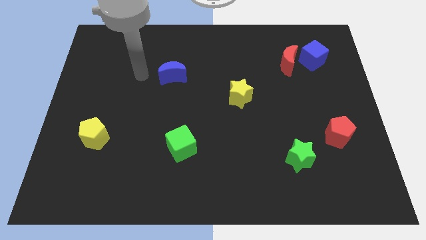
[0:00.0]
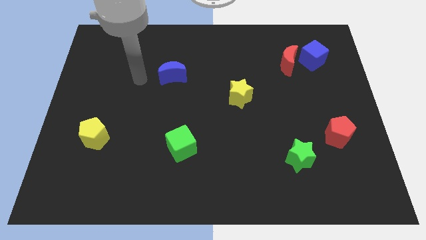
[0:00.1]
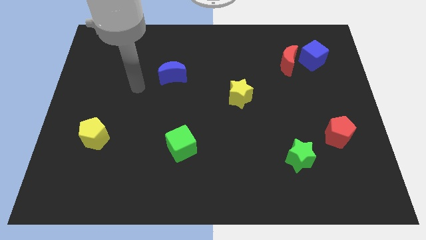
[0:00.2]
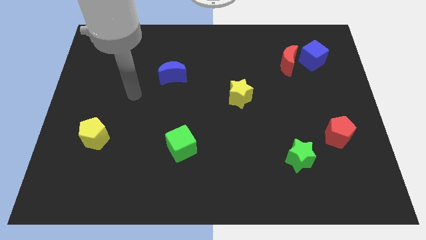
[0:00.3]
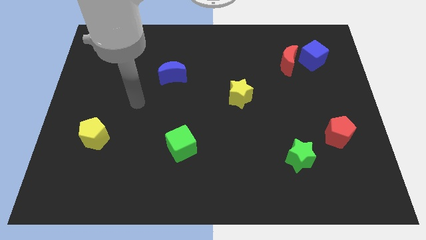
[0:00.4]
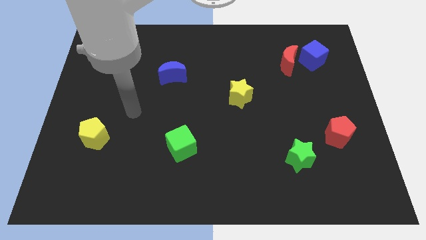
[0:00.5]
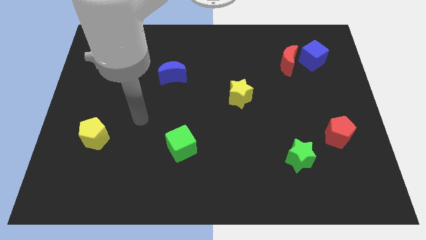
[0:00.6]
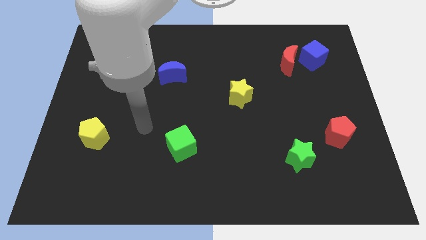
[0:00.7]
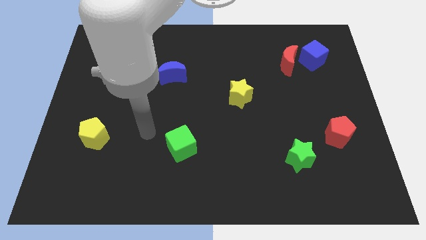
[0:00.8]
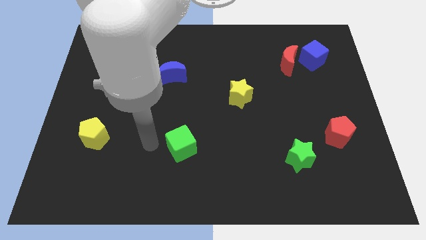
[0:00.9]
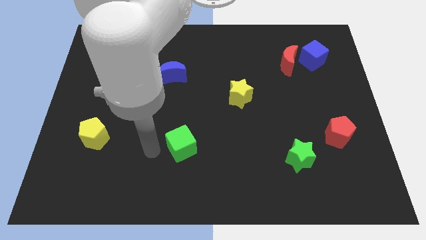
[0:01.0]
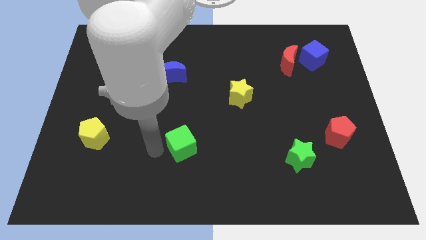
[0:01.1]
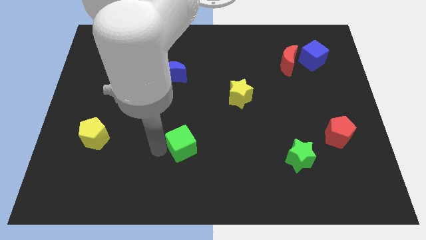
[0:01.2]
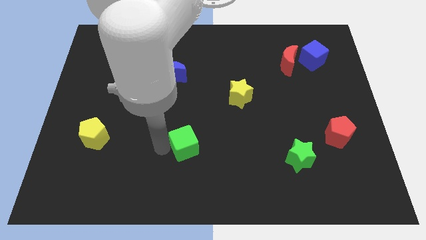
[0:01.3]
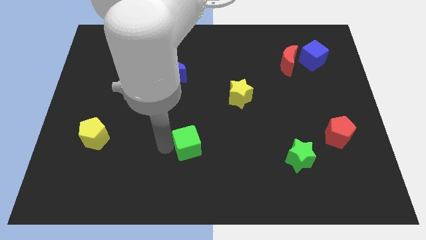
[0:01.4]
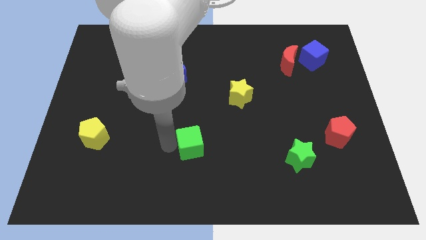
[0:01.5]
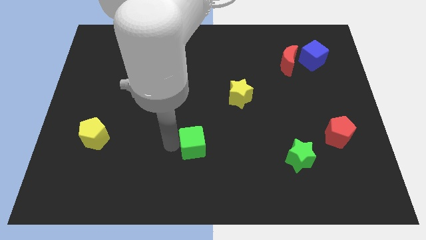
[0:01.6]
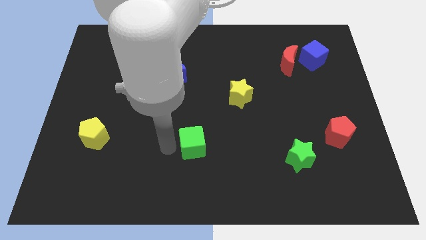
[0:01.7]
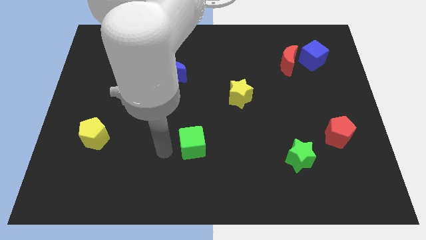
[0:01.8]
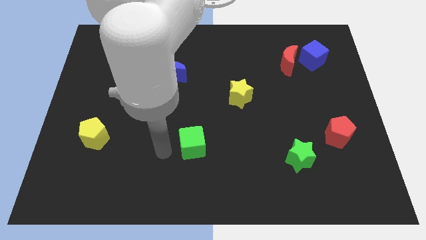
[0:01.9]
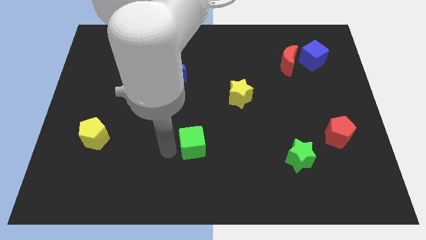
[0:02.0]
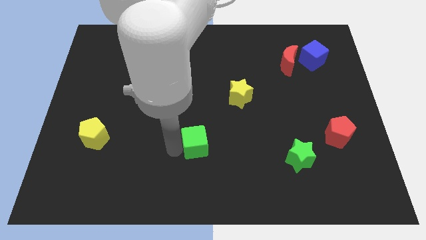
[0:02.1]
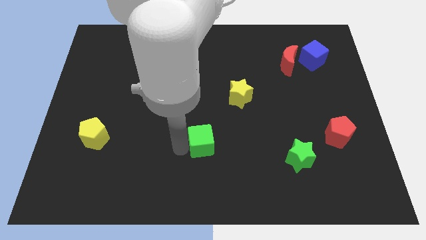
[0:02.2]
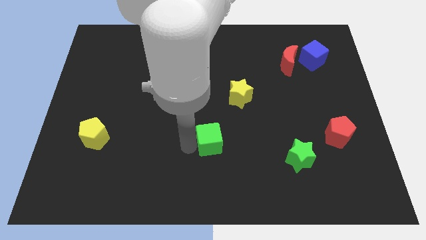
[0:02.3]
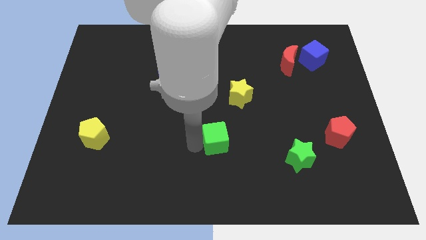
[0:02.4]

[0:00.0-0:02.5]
slide the green cube somewhat to the right

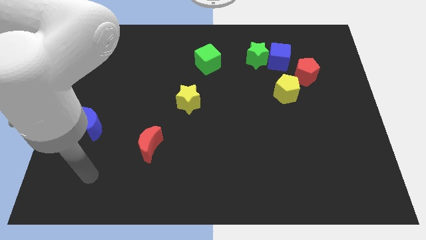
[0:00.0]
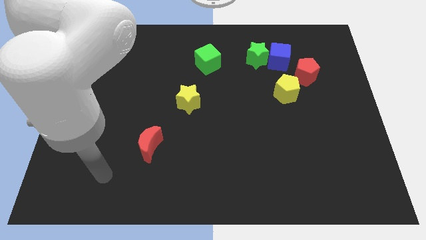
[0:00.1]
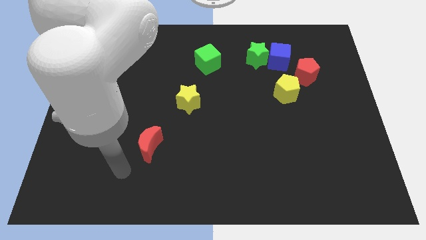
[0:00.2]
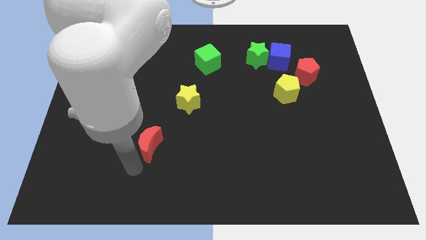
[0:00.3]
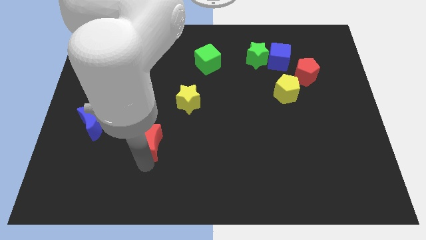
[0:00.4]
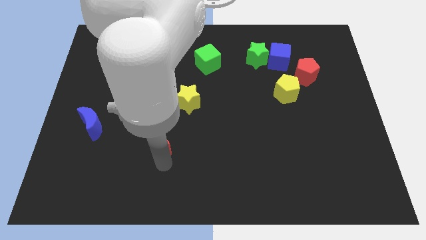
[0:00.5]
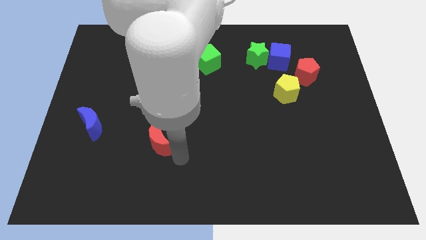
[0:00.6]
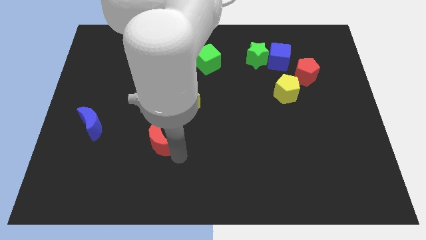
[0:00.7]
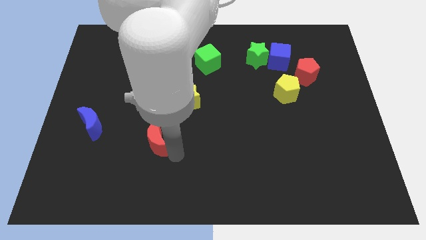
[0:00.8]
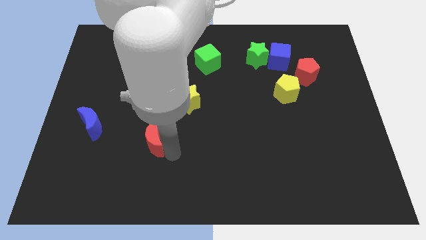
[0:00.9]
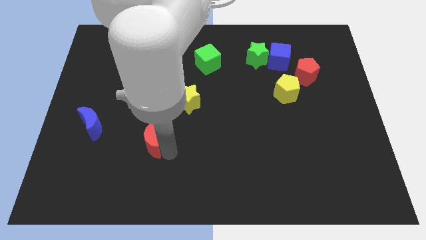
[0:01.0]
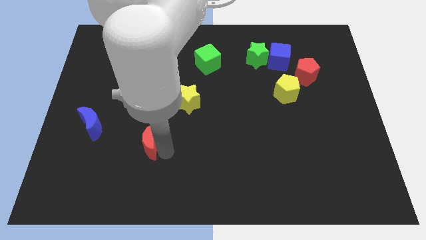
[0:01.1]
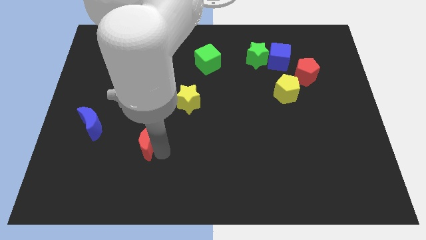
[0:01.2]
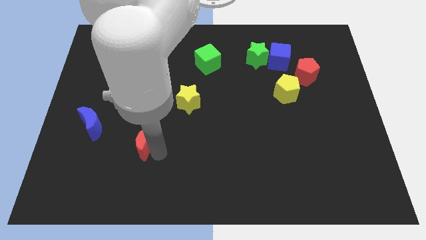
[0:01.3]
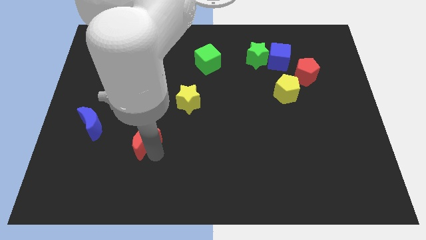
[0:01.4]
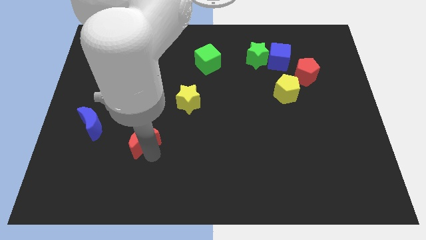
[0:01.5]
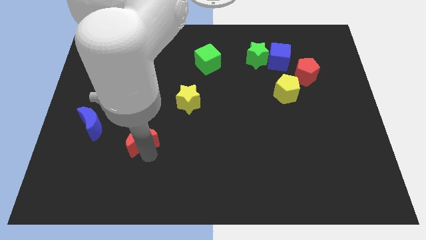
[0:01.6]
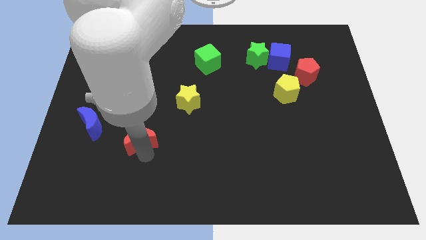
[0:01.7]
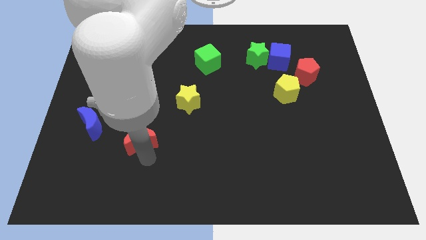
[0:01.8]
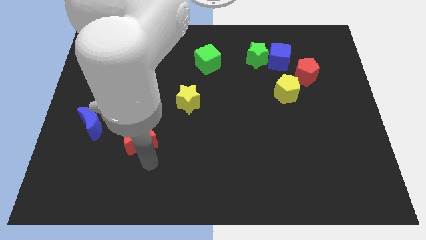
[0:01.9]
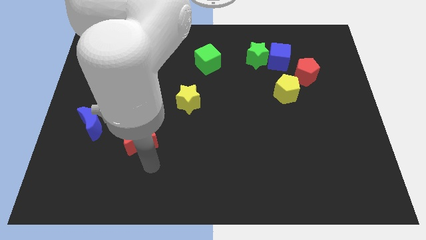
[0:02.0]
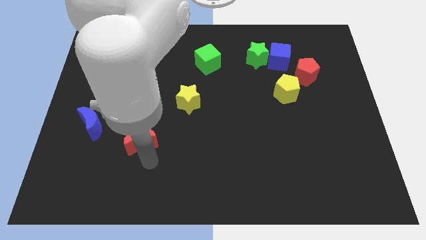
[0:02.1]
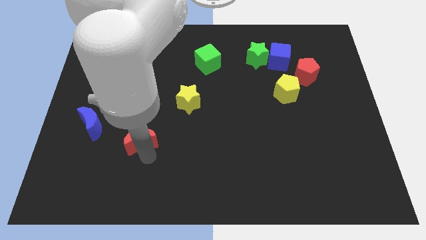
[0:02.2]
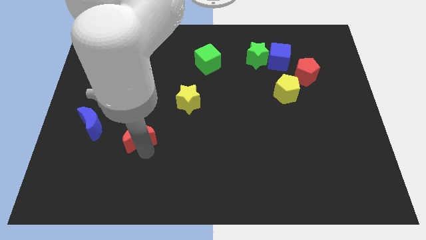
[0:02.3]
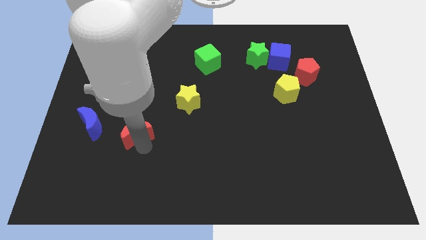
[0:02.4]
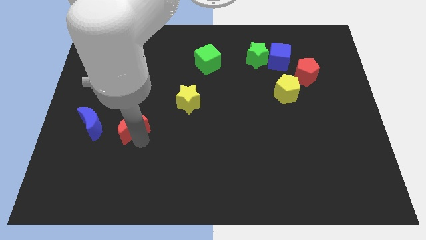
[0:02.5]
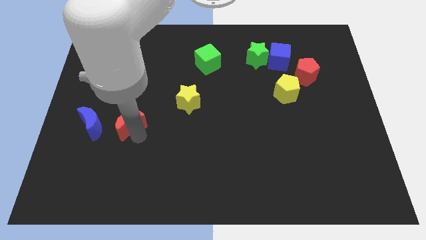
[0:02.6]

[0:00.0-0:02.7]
slightly slide the red moon upwards and to the left diagonally

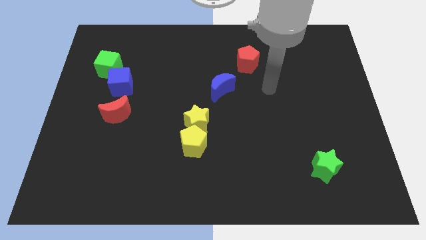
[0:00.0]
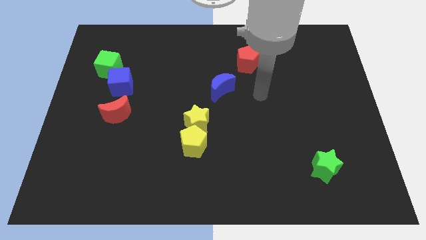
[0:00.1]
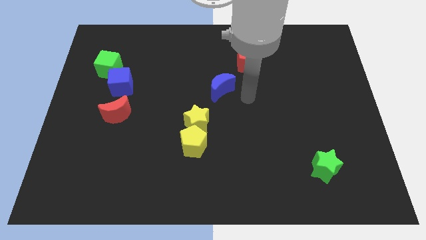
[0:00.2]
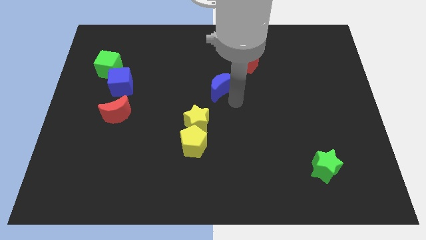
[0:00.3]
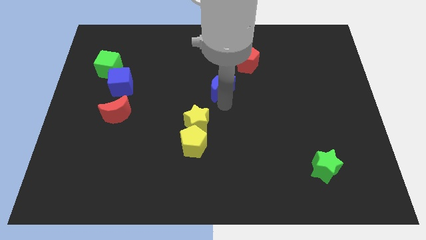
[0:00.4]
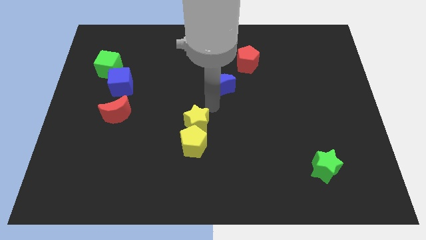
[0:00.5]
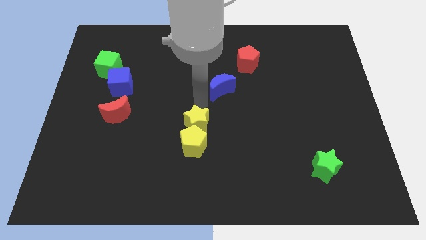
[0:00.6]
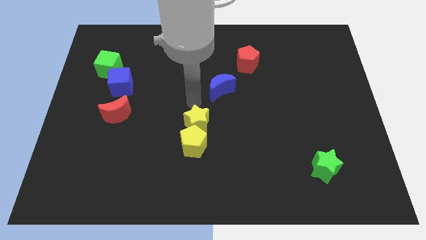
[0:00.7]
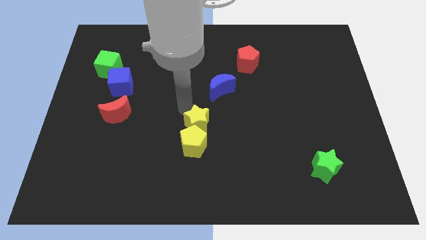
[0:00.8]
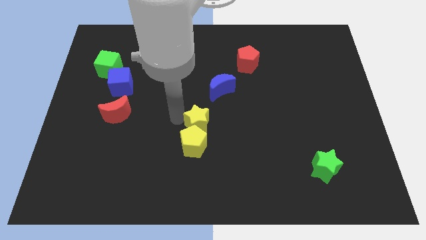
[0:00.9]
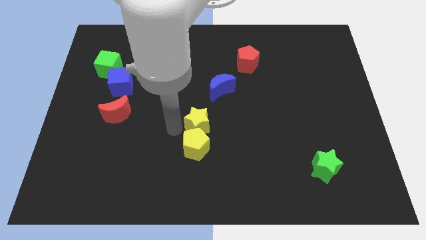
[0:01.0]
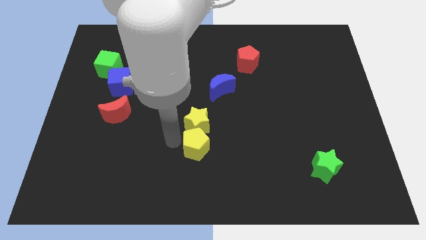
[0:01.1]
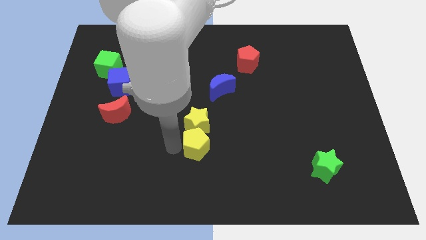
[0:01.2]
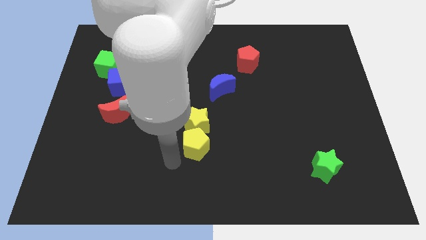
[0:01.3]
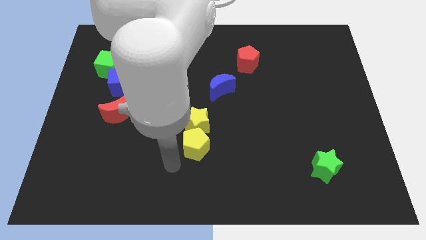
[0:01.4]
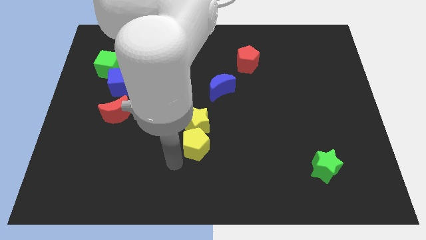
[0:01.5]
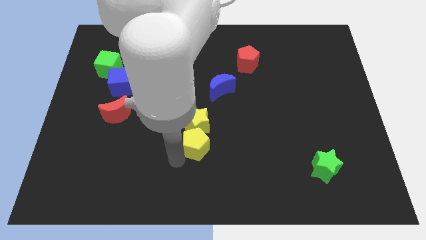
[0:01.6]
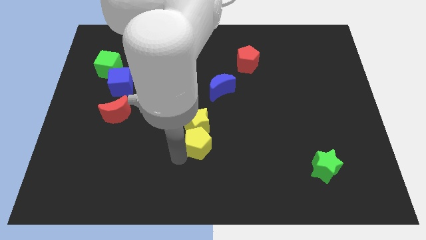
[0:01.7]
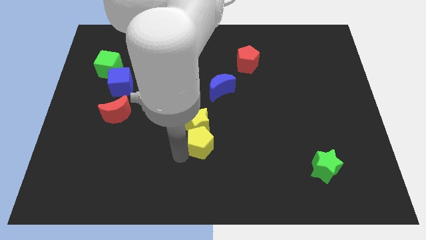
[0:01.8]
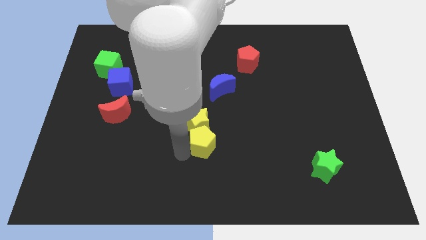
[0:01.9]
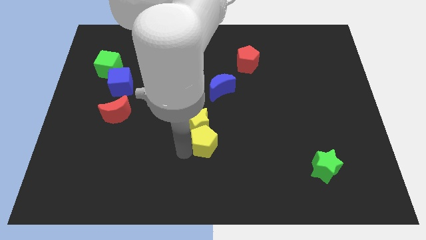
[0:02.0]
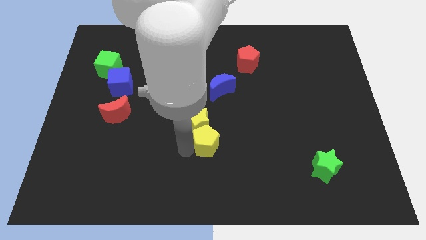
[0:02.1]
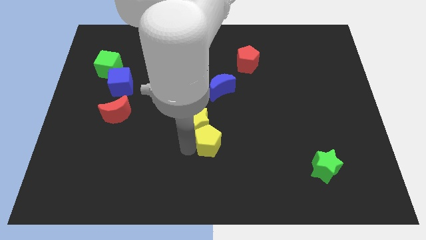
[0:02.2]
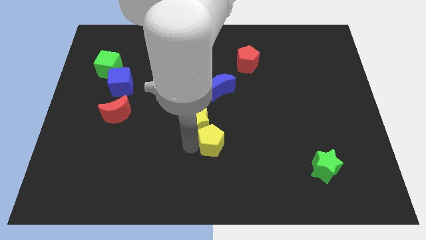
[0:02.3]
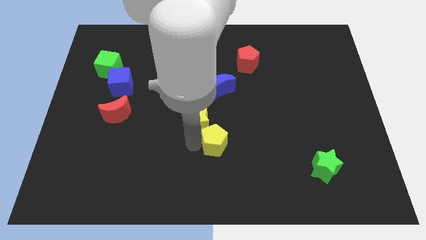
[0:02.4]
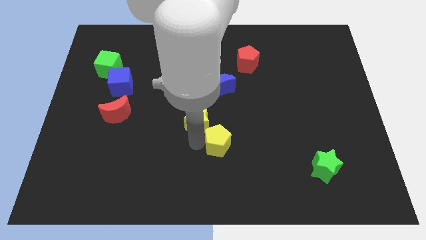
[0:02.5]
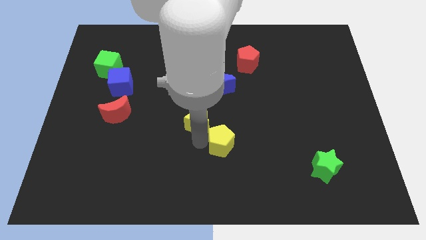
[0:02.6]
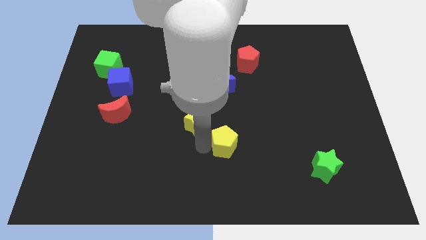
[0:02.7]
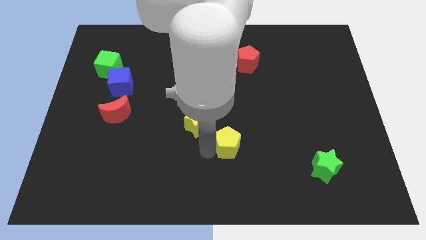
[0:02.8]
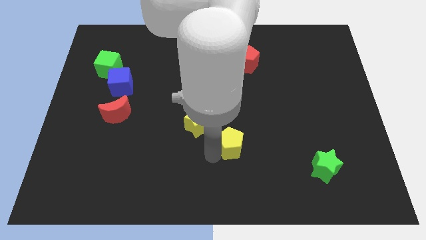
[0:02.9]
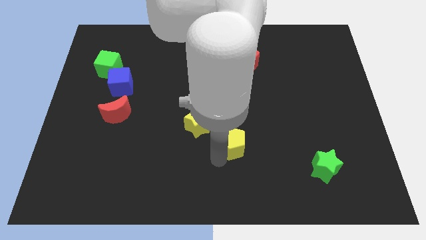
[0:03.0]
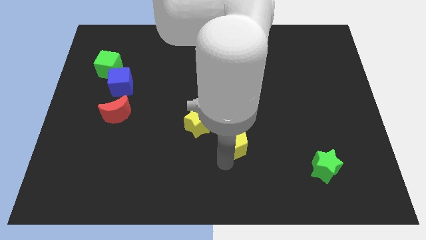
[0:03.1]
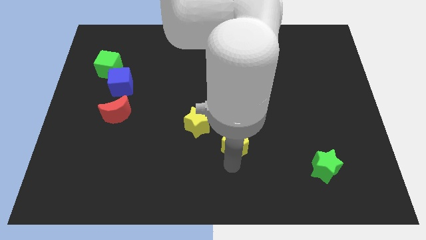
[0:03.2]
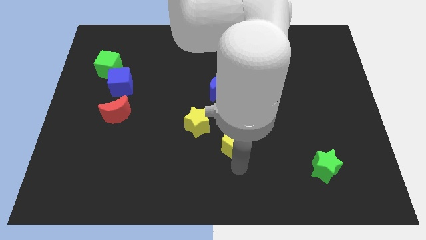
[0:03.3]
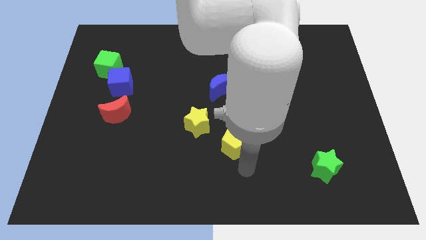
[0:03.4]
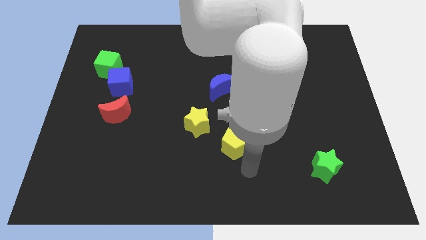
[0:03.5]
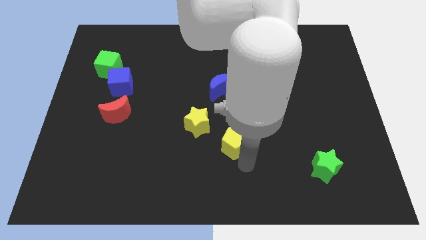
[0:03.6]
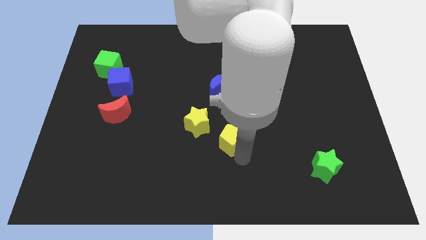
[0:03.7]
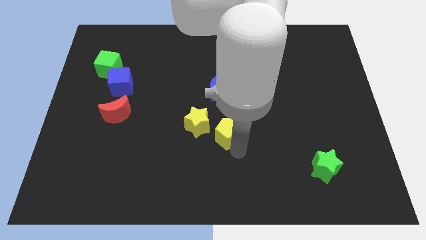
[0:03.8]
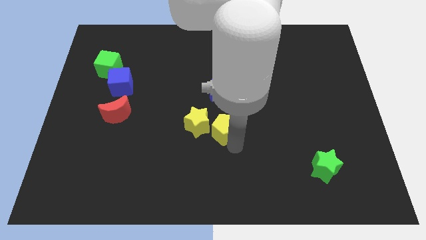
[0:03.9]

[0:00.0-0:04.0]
slightly move the yellow pentagon up and right diagonally
